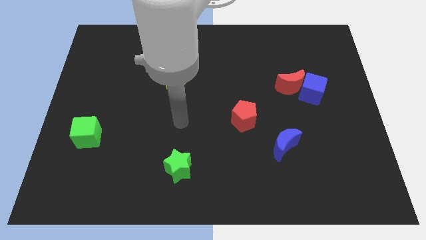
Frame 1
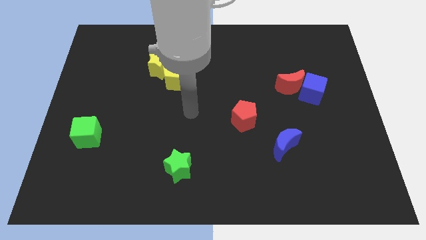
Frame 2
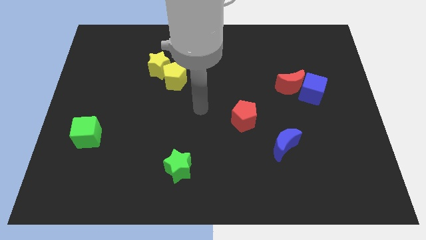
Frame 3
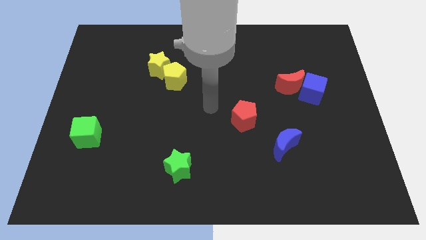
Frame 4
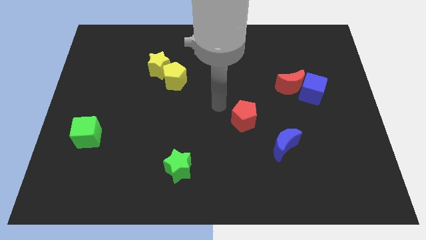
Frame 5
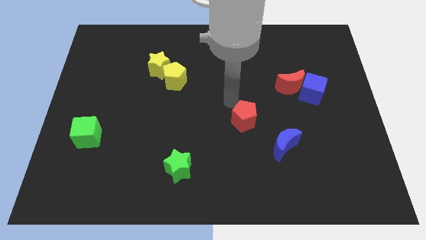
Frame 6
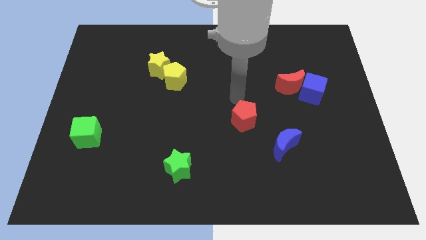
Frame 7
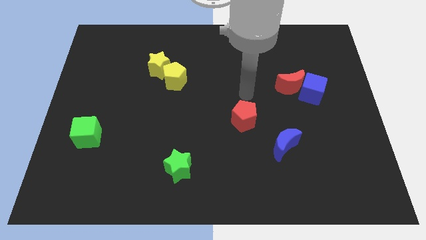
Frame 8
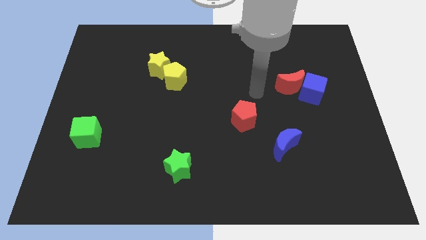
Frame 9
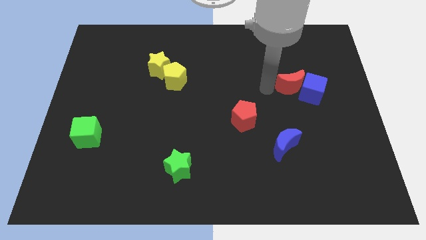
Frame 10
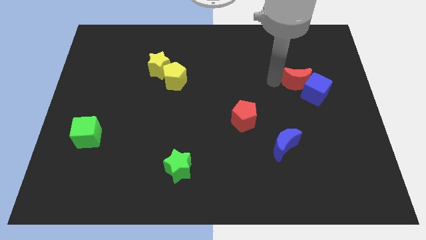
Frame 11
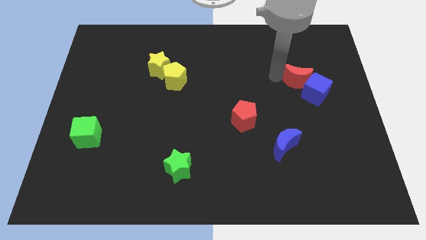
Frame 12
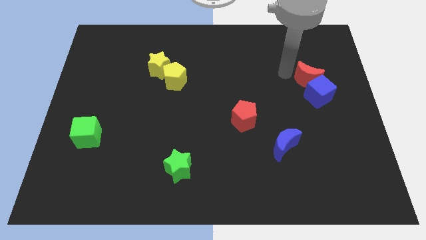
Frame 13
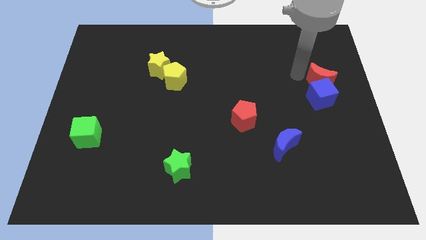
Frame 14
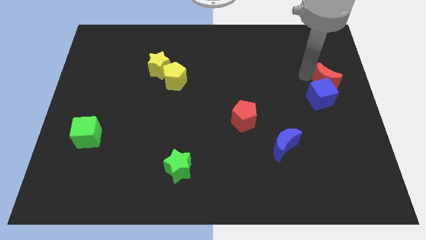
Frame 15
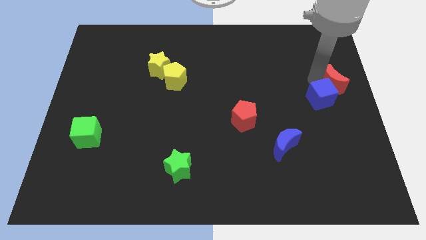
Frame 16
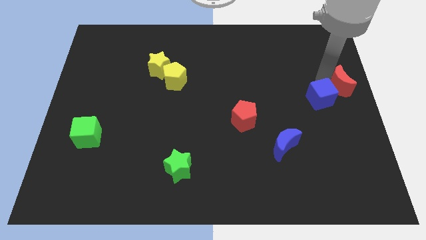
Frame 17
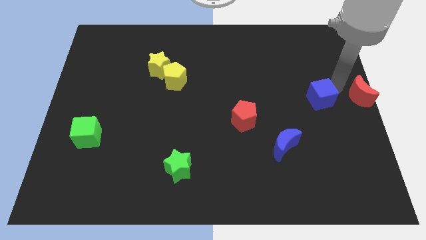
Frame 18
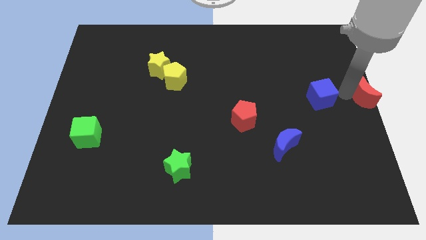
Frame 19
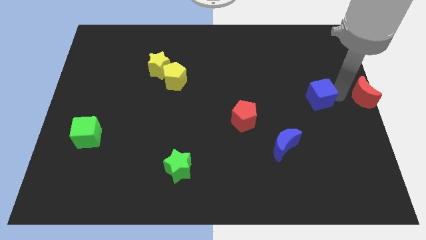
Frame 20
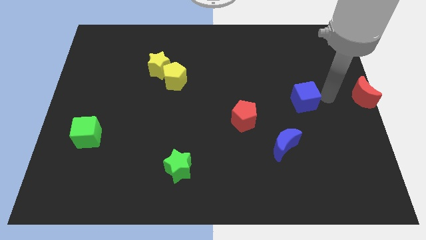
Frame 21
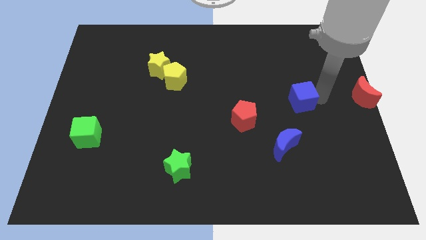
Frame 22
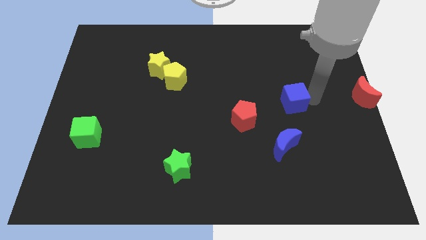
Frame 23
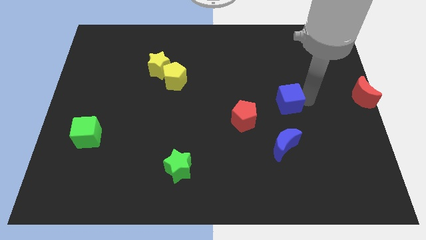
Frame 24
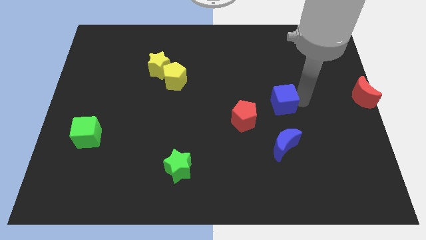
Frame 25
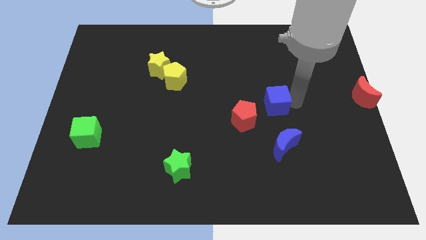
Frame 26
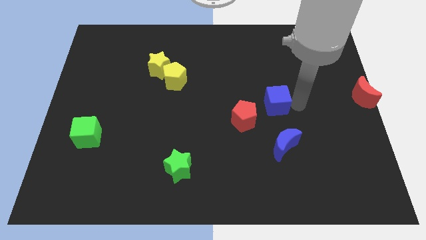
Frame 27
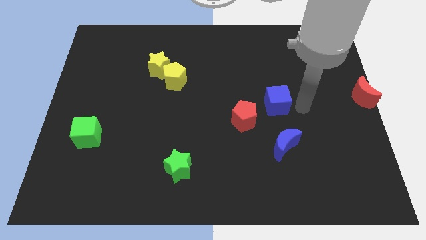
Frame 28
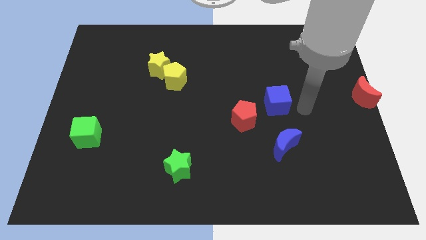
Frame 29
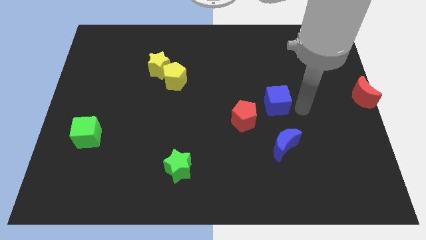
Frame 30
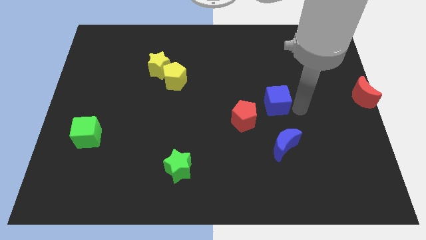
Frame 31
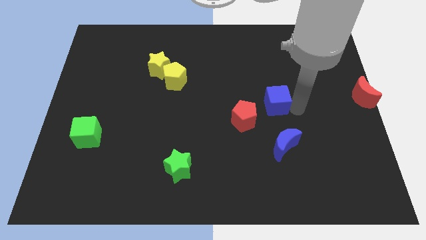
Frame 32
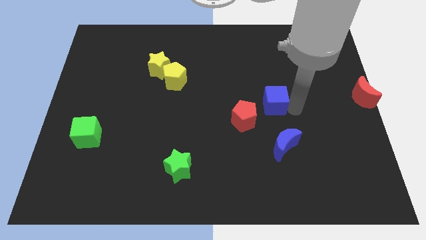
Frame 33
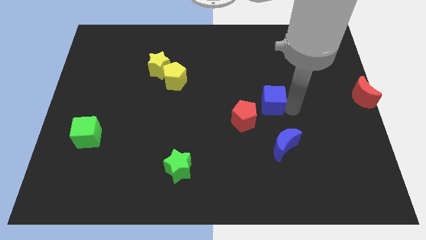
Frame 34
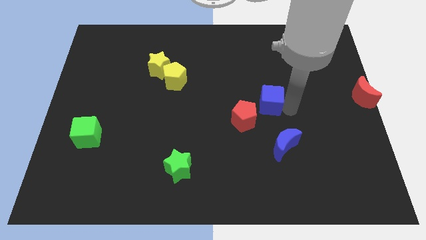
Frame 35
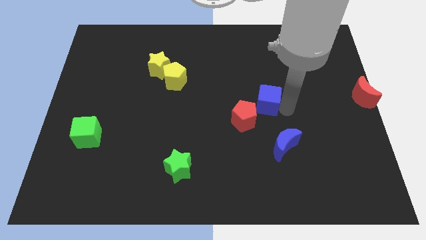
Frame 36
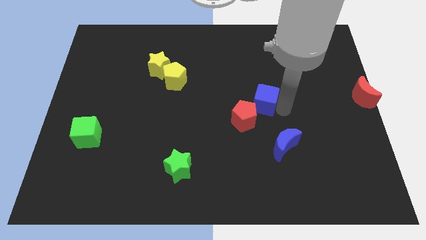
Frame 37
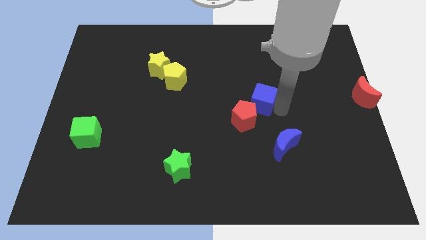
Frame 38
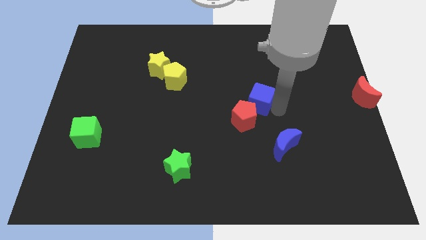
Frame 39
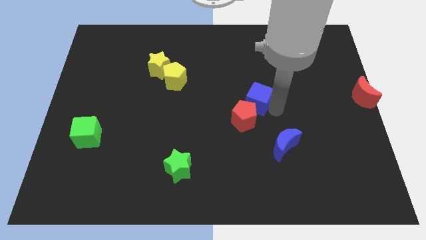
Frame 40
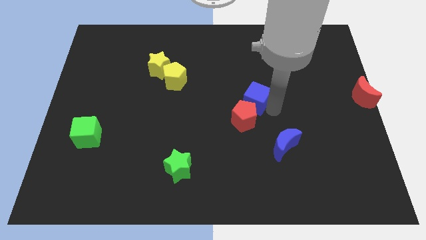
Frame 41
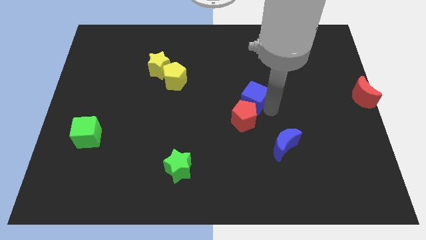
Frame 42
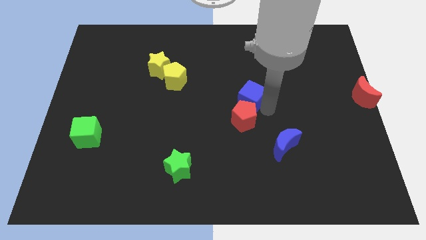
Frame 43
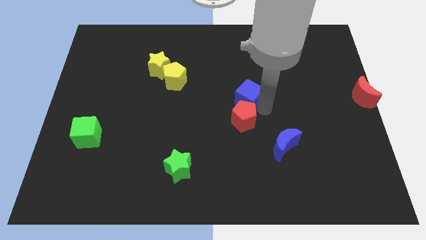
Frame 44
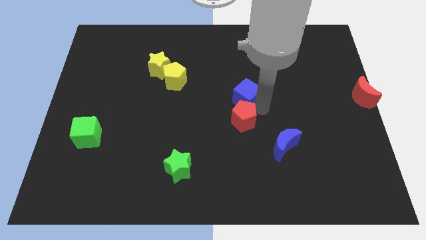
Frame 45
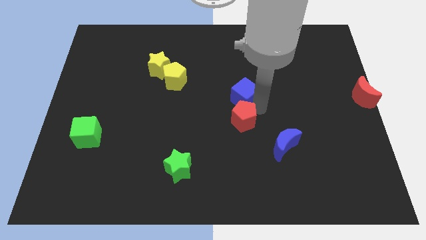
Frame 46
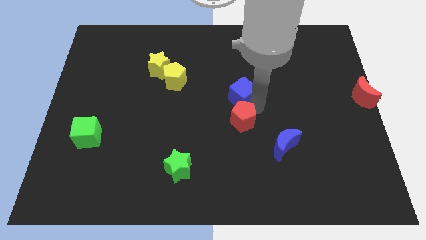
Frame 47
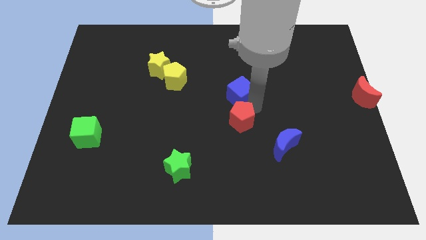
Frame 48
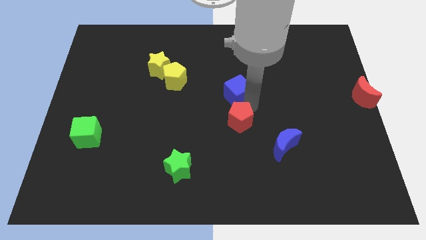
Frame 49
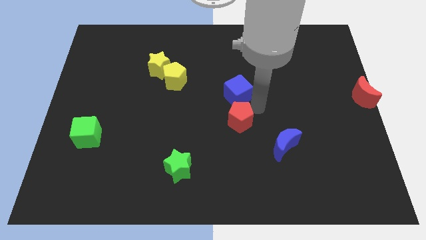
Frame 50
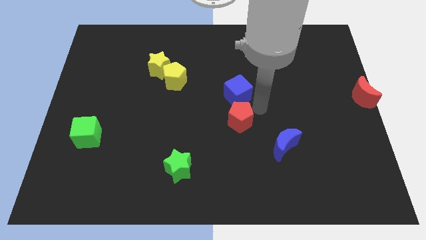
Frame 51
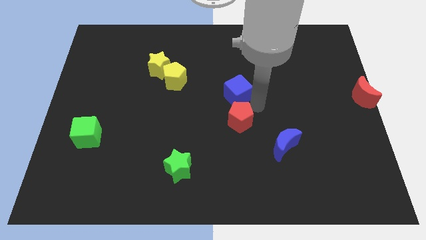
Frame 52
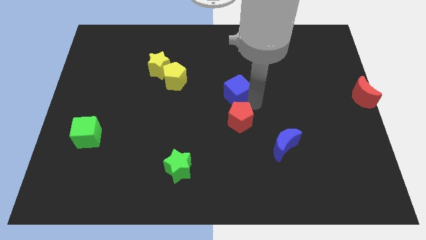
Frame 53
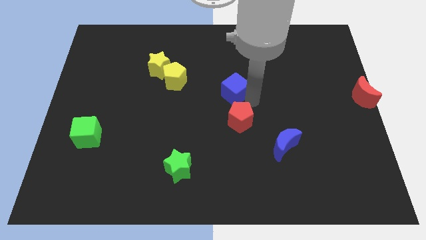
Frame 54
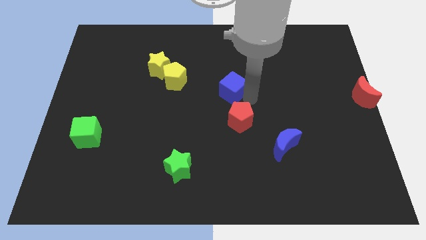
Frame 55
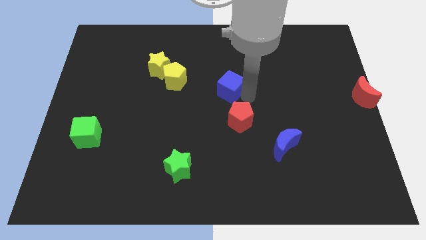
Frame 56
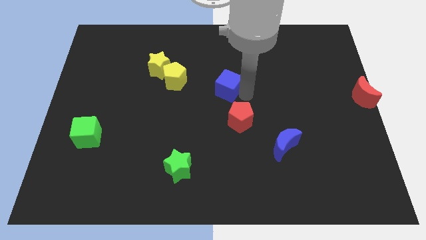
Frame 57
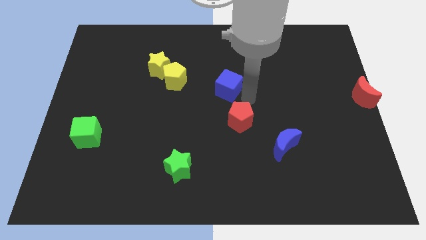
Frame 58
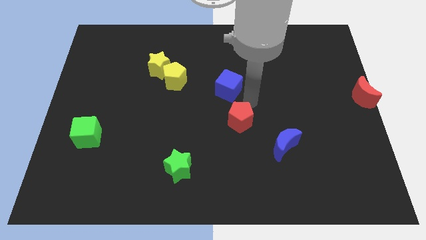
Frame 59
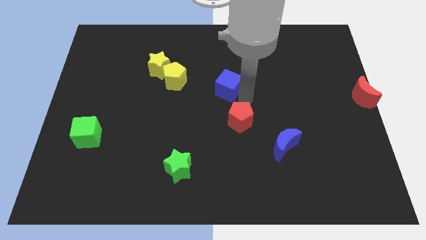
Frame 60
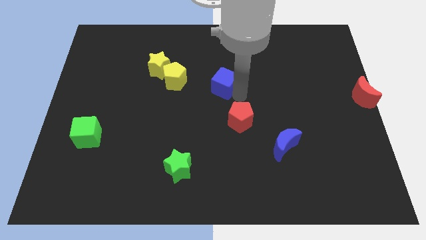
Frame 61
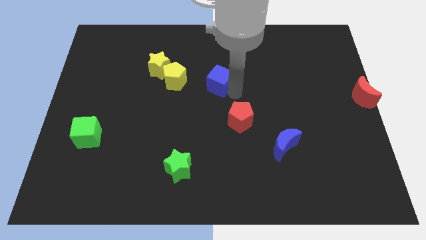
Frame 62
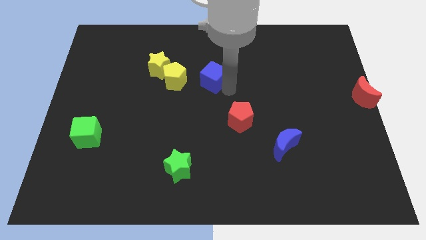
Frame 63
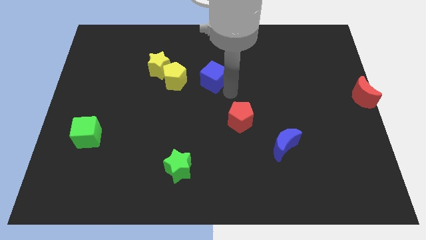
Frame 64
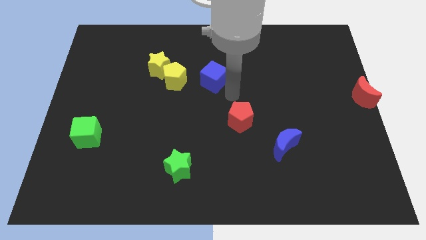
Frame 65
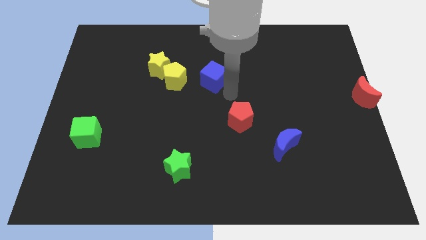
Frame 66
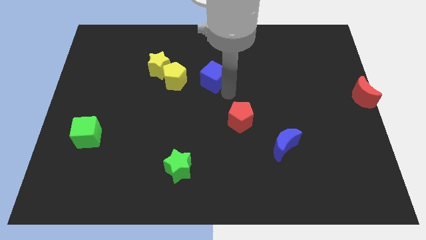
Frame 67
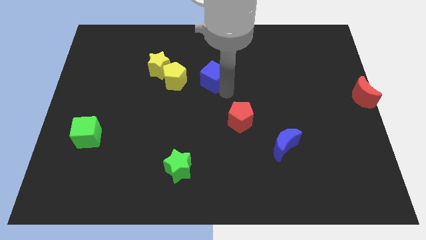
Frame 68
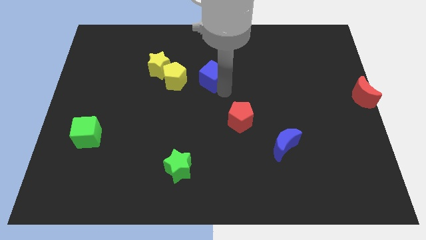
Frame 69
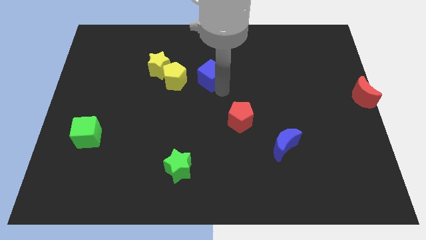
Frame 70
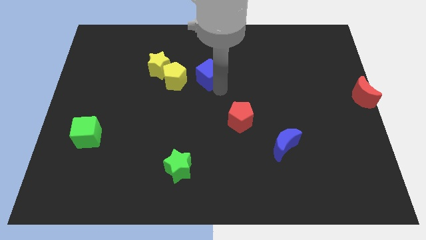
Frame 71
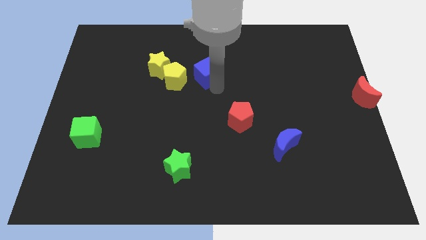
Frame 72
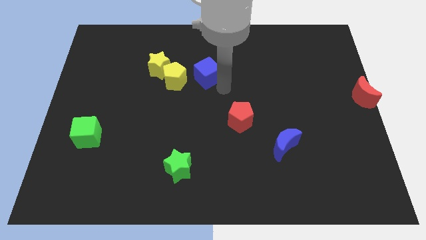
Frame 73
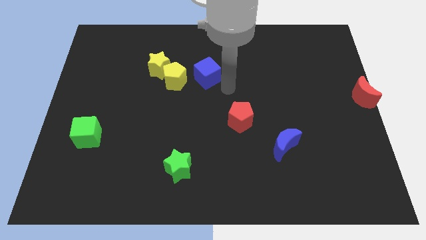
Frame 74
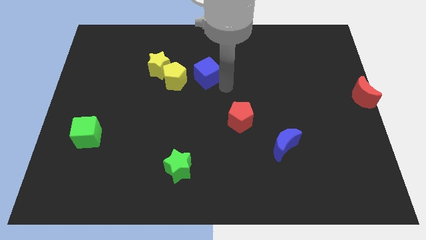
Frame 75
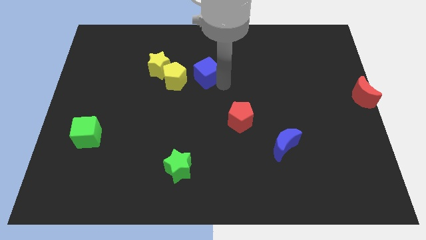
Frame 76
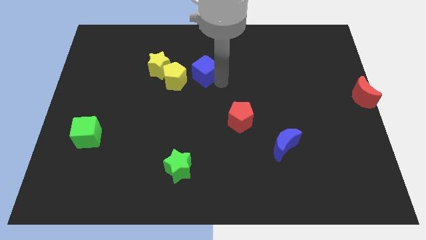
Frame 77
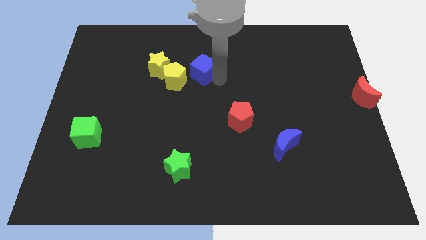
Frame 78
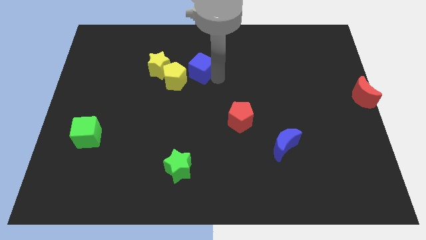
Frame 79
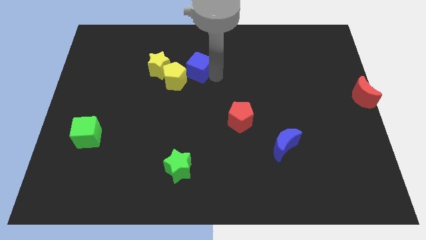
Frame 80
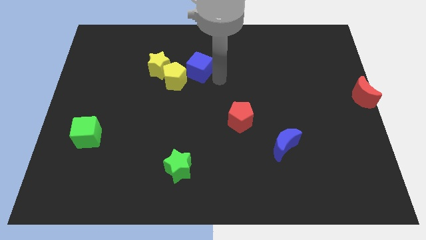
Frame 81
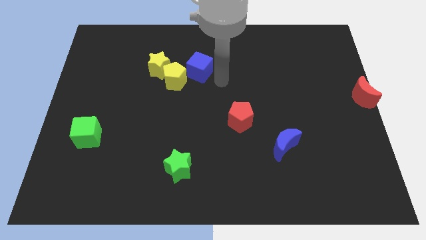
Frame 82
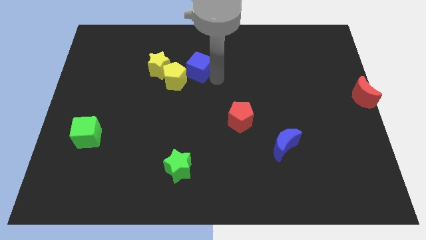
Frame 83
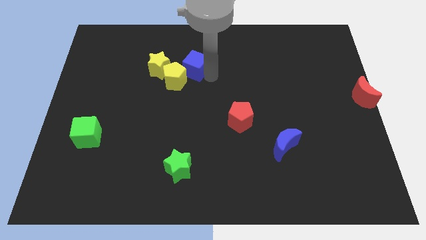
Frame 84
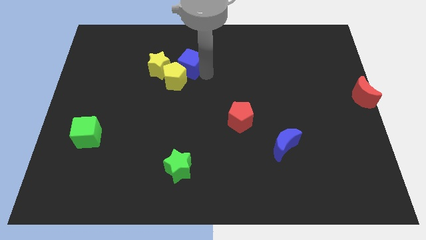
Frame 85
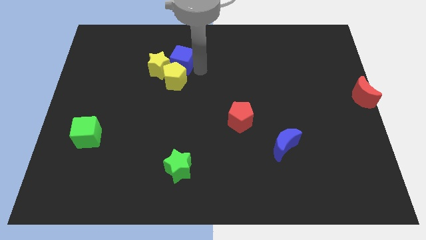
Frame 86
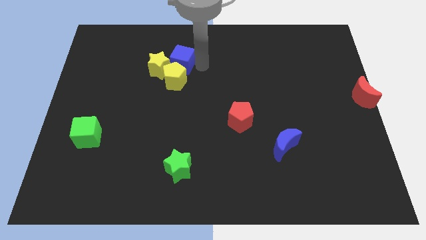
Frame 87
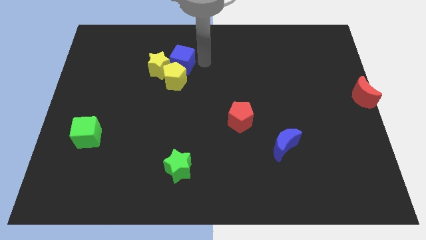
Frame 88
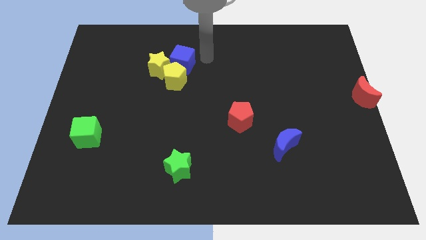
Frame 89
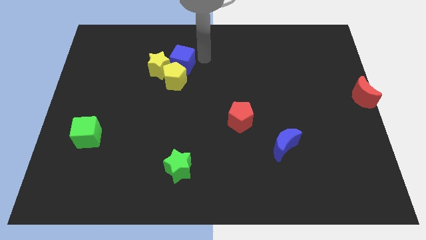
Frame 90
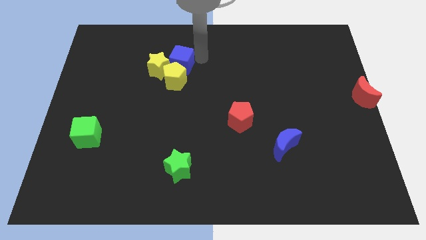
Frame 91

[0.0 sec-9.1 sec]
slide the blue cube close to the yellow star
